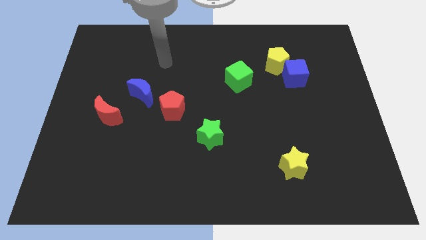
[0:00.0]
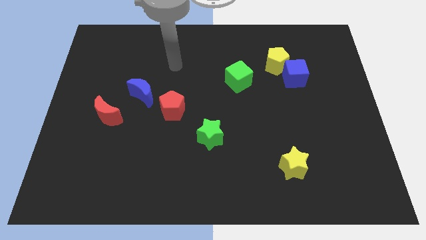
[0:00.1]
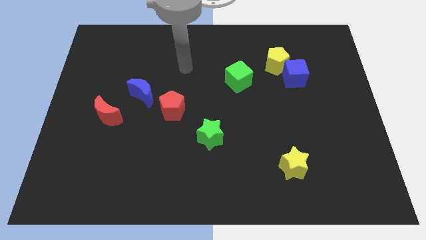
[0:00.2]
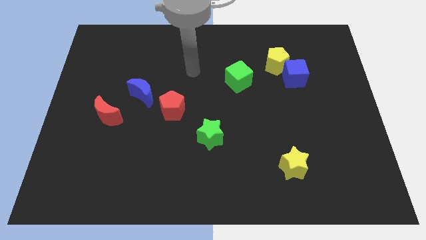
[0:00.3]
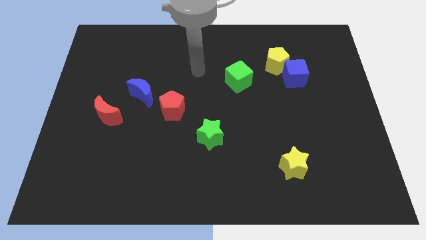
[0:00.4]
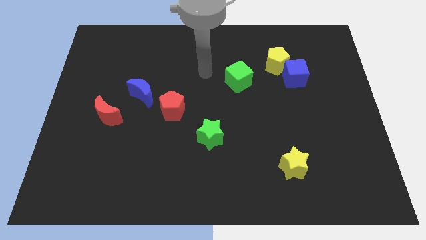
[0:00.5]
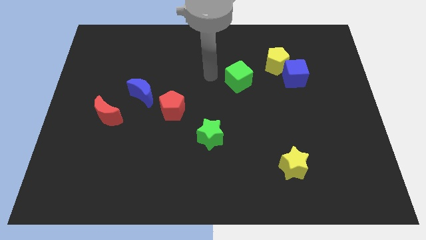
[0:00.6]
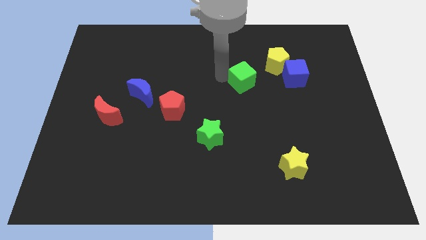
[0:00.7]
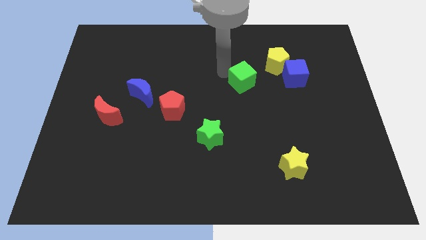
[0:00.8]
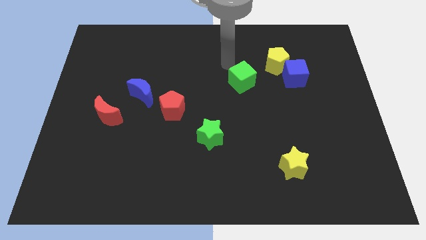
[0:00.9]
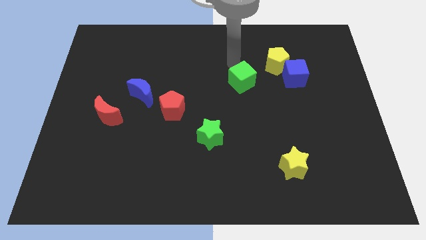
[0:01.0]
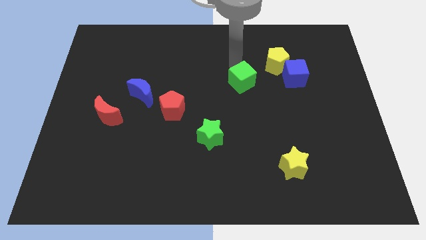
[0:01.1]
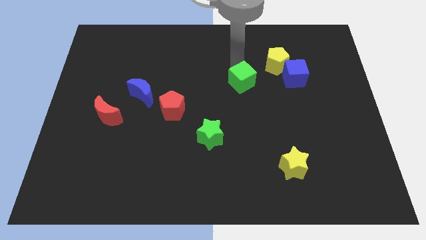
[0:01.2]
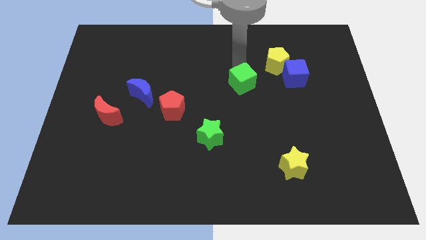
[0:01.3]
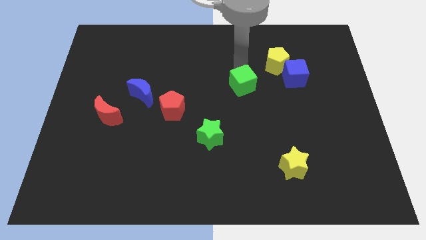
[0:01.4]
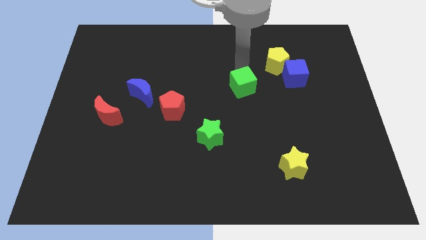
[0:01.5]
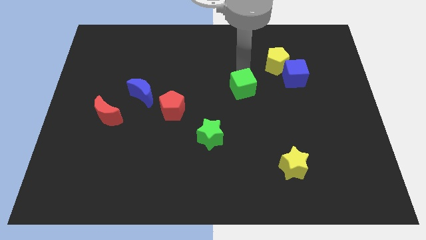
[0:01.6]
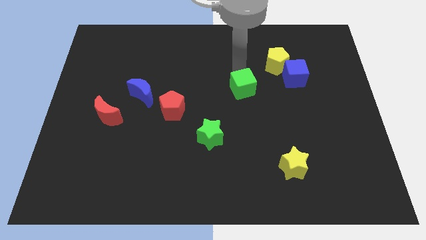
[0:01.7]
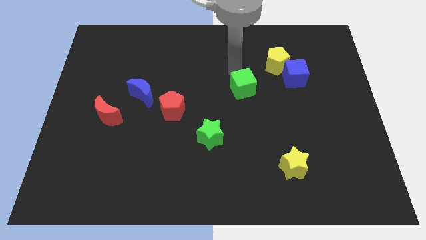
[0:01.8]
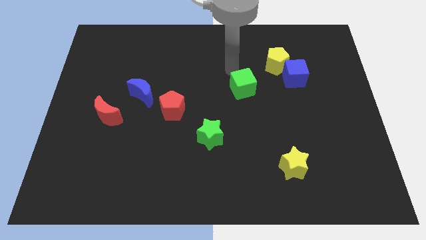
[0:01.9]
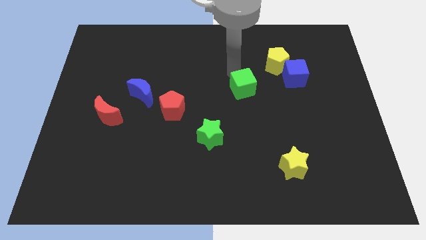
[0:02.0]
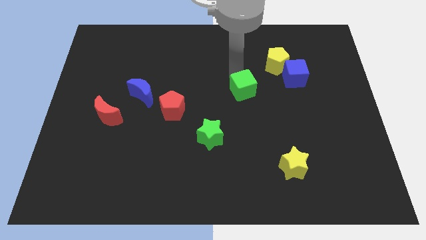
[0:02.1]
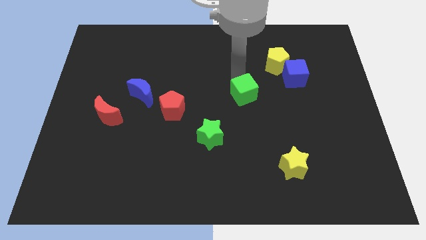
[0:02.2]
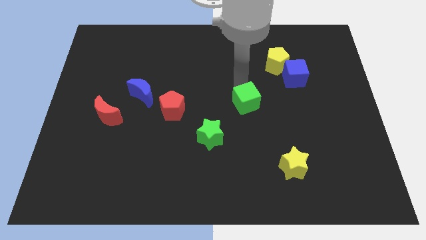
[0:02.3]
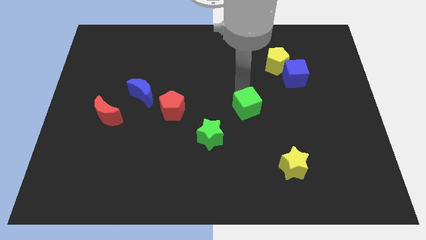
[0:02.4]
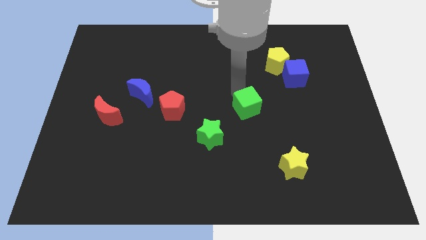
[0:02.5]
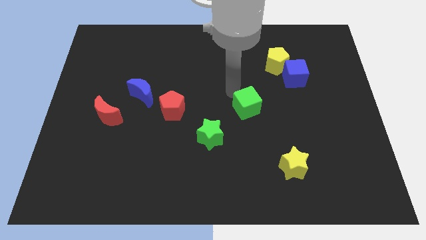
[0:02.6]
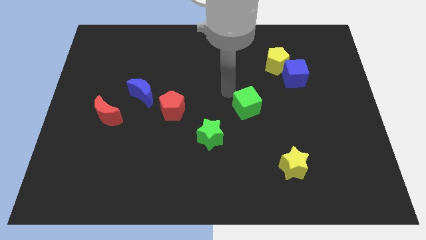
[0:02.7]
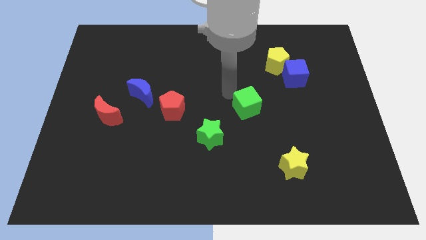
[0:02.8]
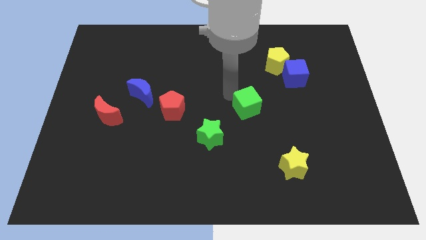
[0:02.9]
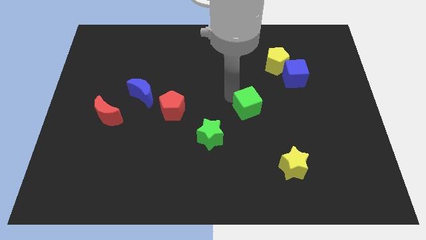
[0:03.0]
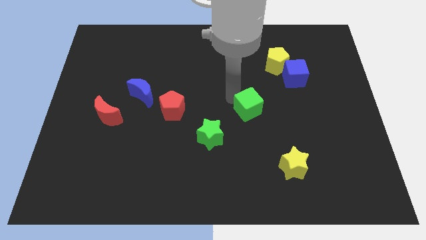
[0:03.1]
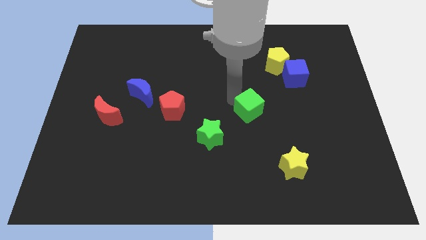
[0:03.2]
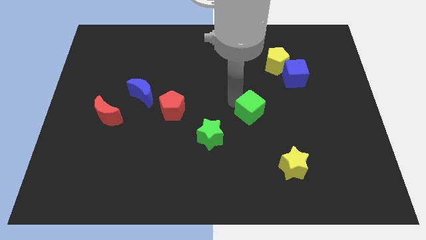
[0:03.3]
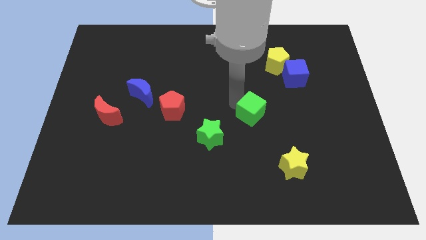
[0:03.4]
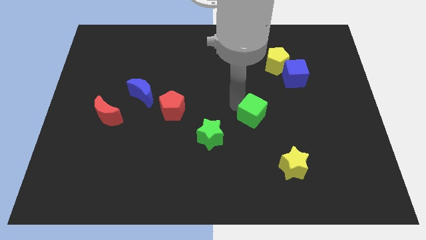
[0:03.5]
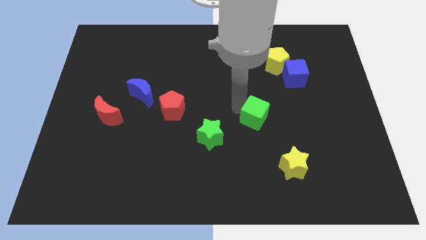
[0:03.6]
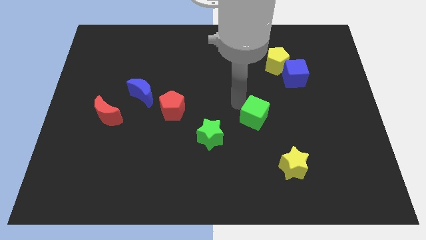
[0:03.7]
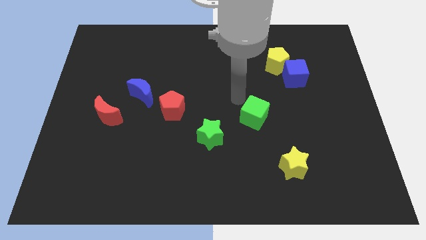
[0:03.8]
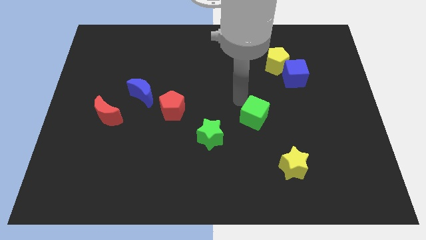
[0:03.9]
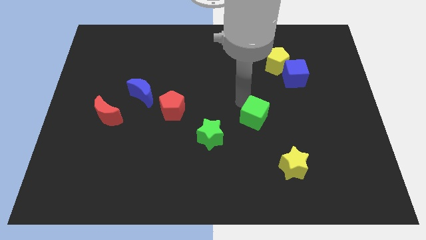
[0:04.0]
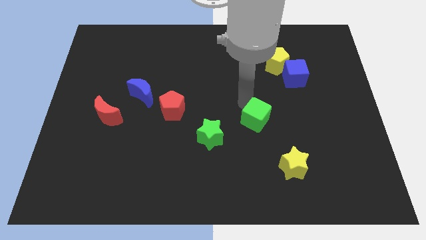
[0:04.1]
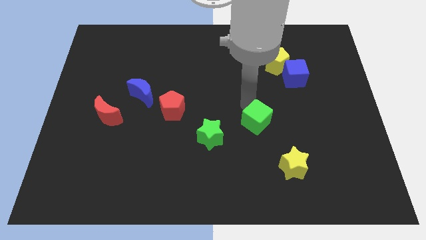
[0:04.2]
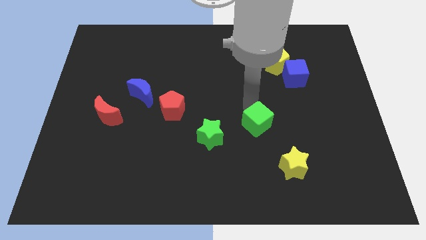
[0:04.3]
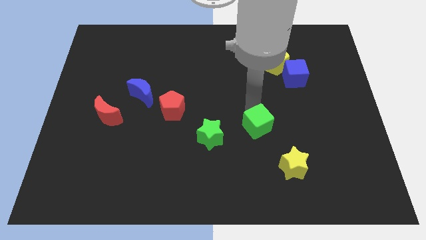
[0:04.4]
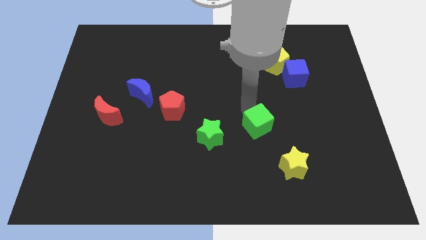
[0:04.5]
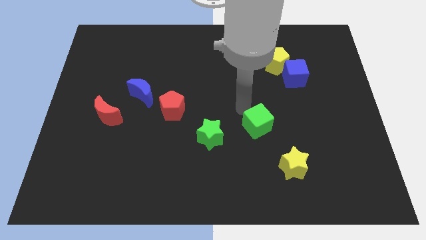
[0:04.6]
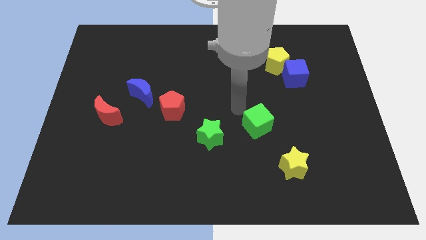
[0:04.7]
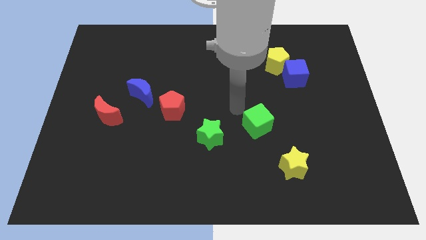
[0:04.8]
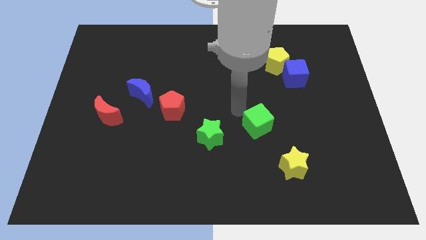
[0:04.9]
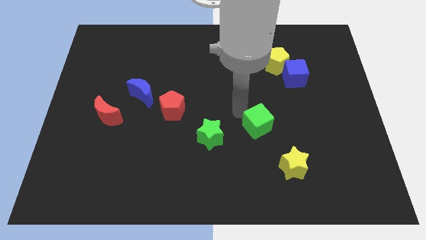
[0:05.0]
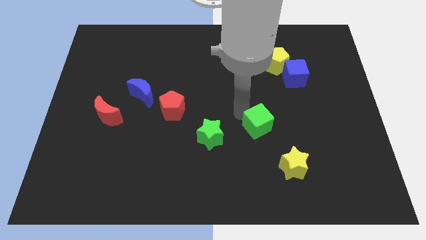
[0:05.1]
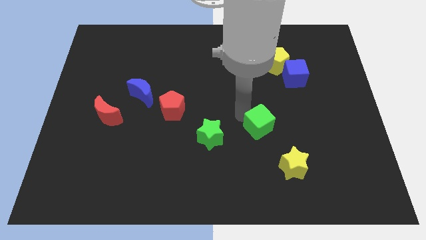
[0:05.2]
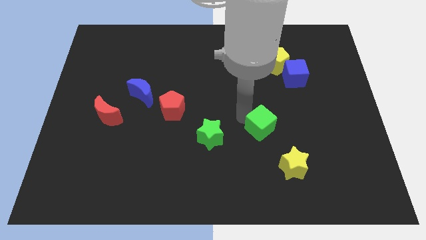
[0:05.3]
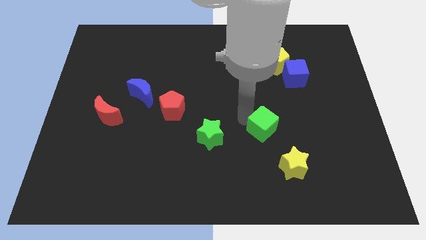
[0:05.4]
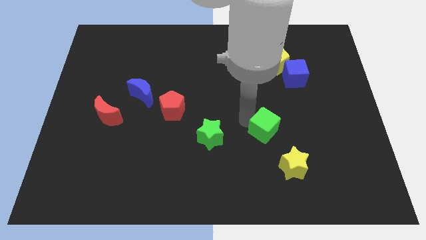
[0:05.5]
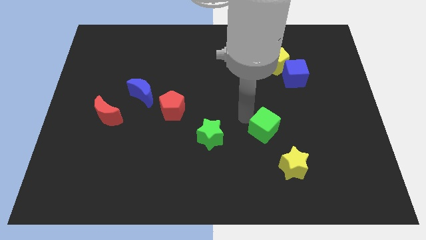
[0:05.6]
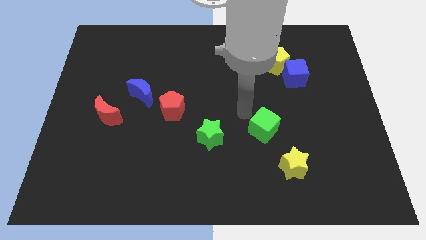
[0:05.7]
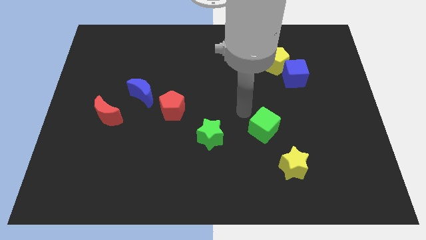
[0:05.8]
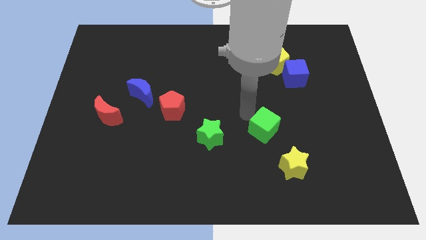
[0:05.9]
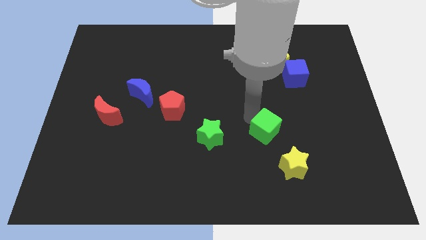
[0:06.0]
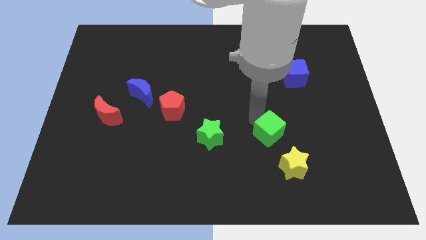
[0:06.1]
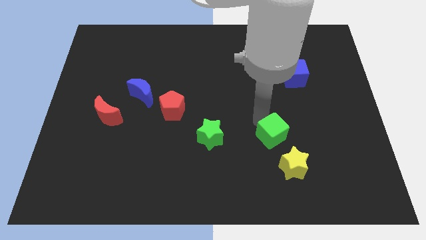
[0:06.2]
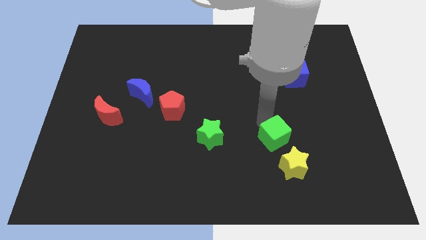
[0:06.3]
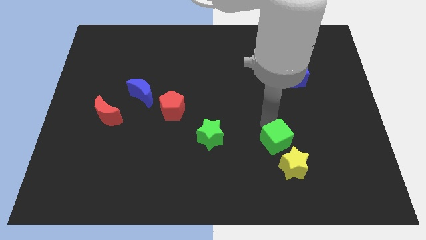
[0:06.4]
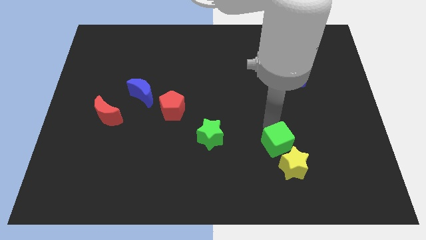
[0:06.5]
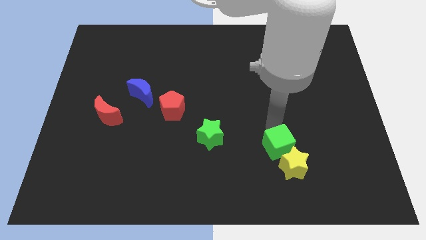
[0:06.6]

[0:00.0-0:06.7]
push the green cube next to the yellow star

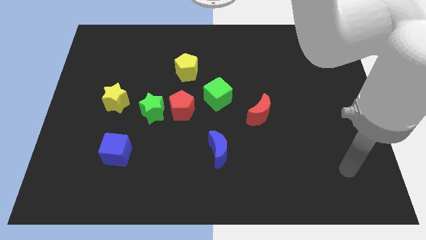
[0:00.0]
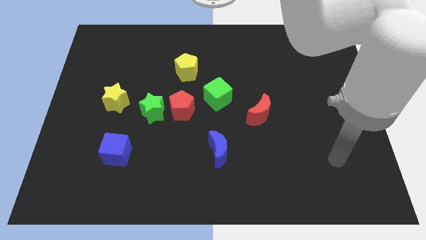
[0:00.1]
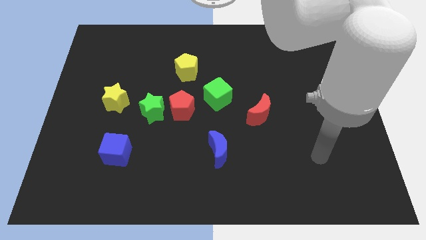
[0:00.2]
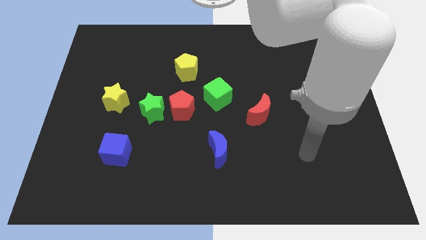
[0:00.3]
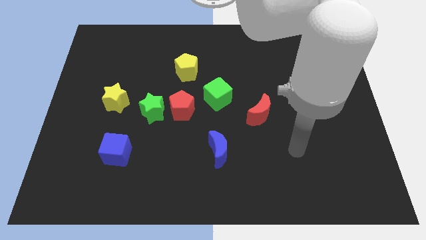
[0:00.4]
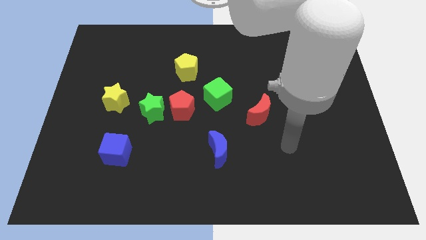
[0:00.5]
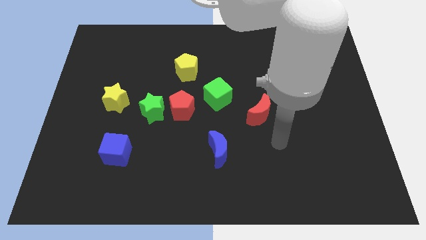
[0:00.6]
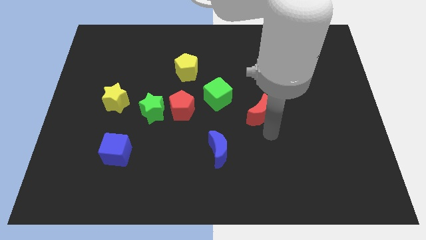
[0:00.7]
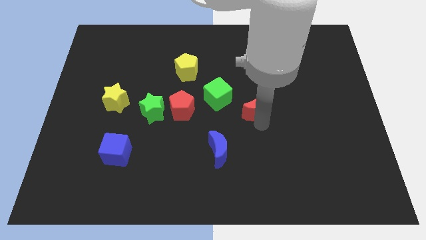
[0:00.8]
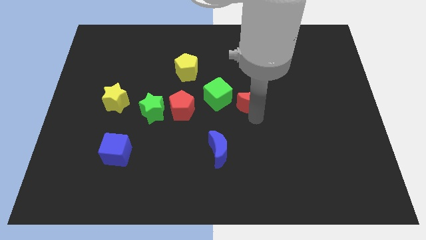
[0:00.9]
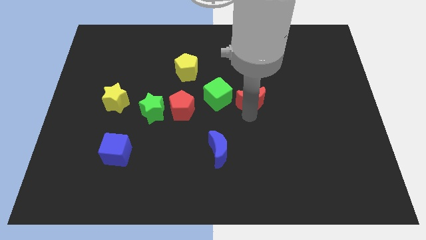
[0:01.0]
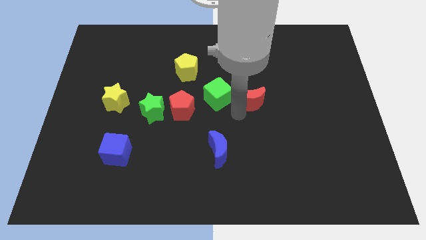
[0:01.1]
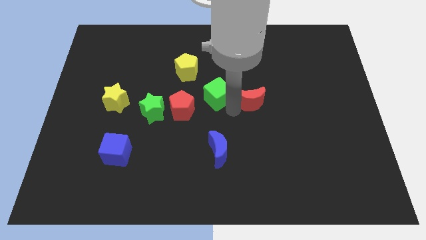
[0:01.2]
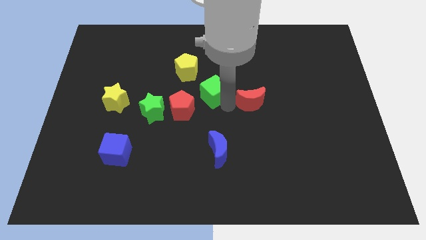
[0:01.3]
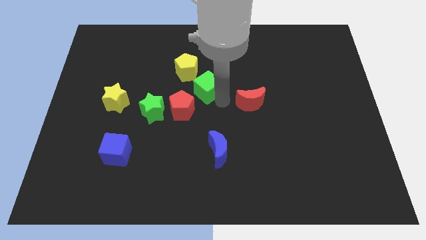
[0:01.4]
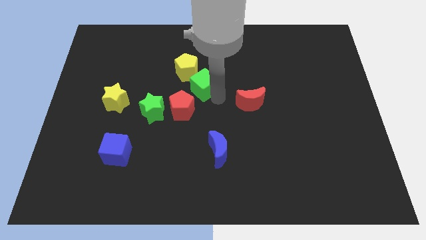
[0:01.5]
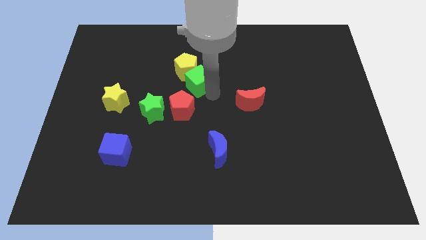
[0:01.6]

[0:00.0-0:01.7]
put the green cube next to the yellow pentagon
